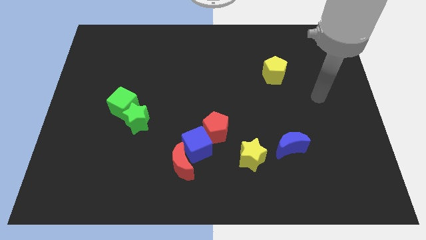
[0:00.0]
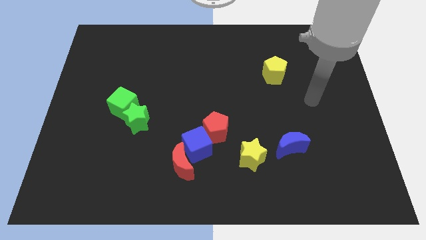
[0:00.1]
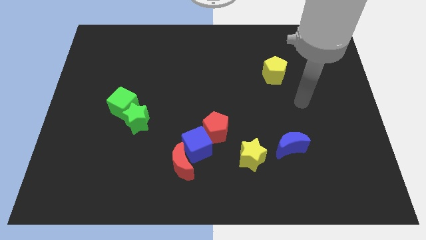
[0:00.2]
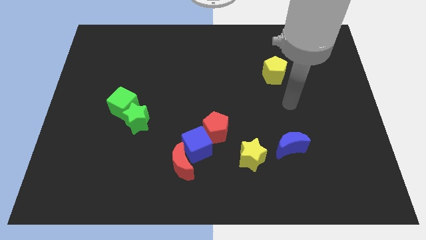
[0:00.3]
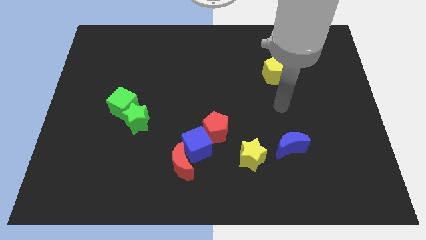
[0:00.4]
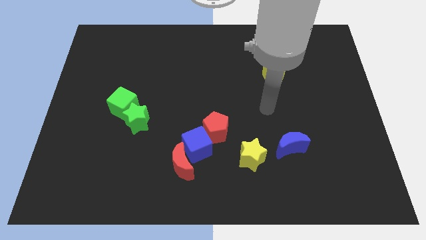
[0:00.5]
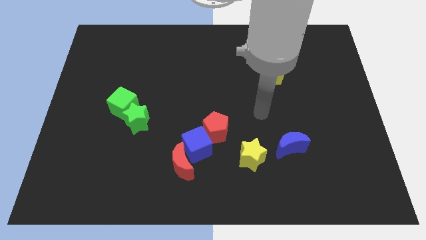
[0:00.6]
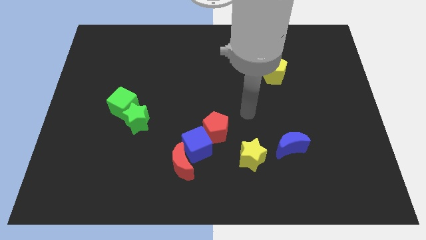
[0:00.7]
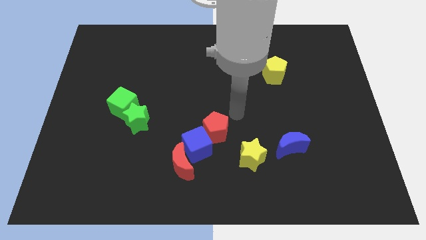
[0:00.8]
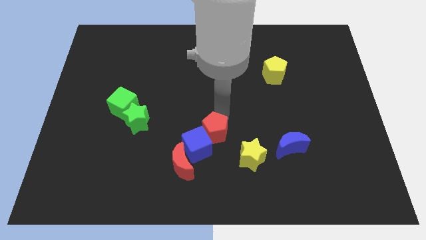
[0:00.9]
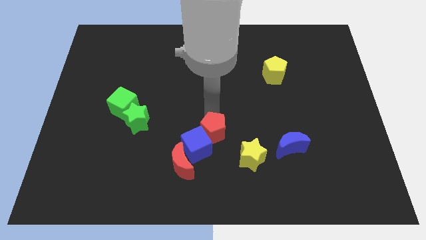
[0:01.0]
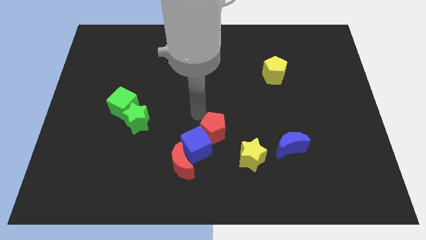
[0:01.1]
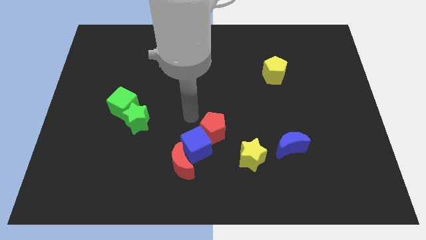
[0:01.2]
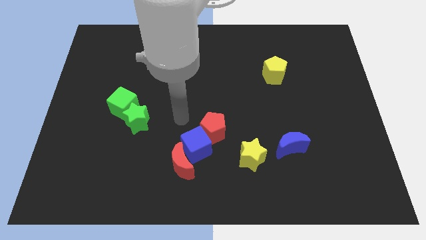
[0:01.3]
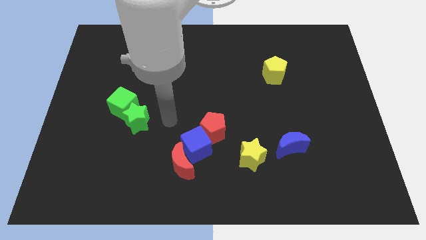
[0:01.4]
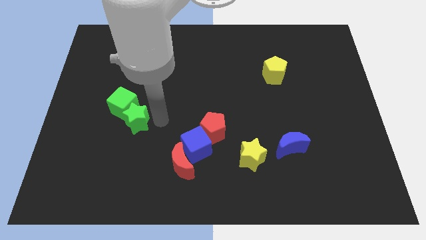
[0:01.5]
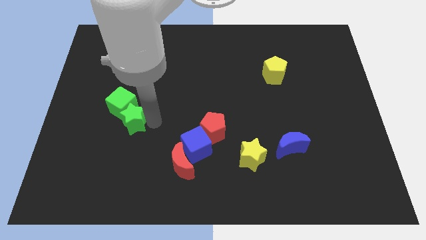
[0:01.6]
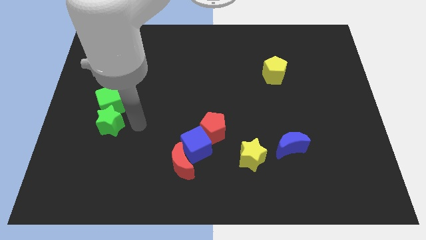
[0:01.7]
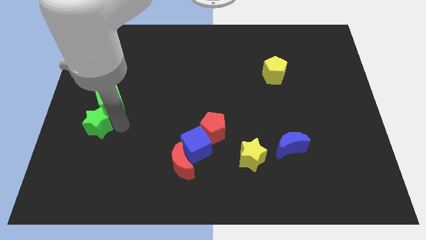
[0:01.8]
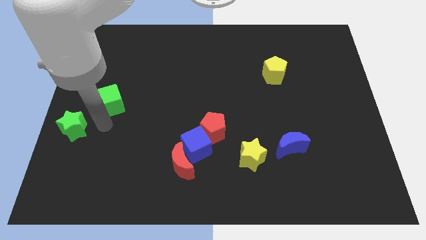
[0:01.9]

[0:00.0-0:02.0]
pull the green cube apart from the green star

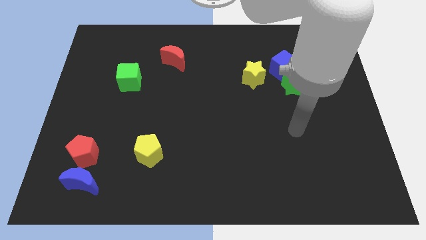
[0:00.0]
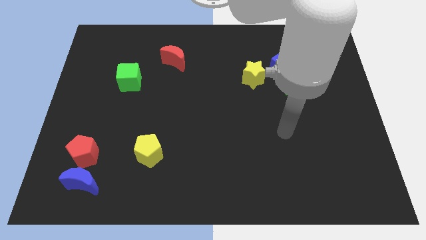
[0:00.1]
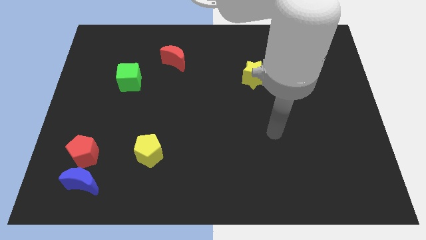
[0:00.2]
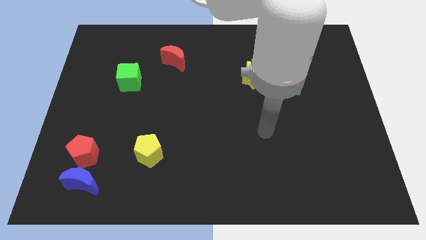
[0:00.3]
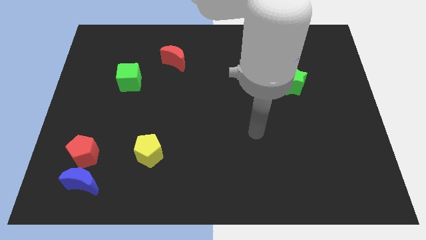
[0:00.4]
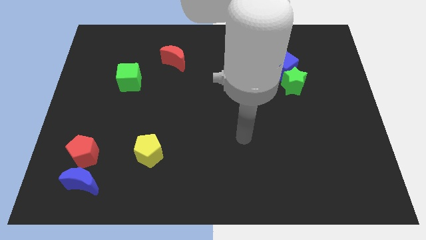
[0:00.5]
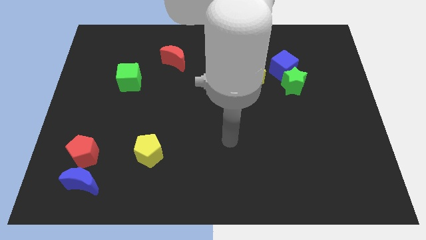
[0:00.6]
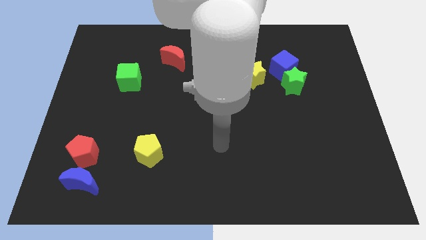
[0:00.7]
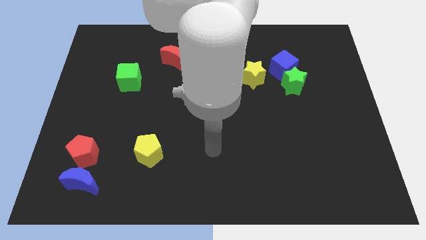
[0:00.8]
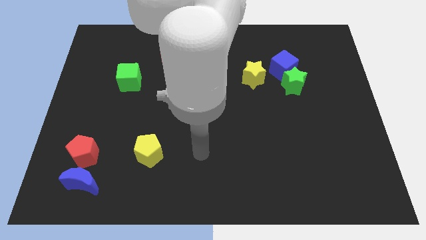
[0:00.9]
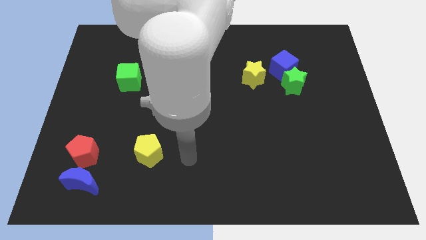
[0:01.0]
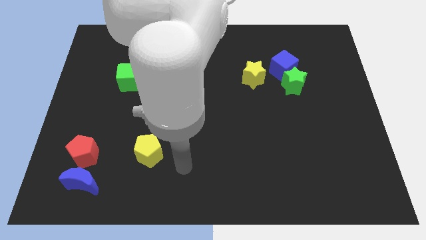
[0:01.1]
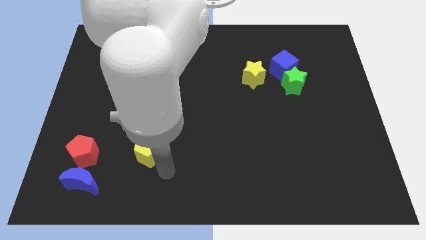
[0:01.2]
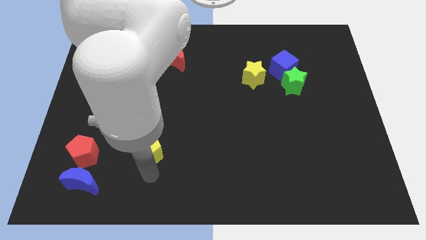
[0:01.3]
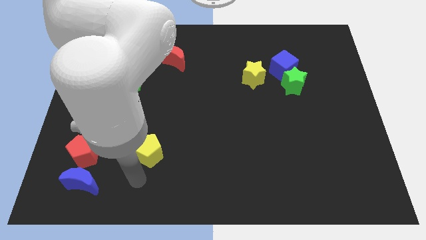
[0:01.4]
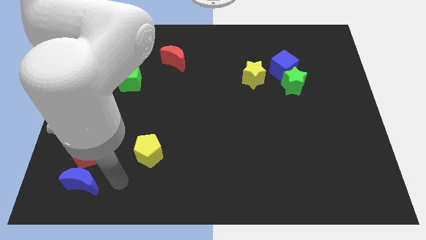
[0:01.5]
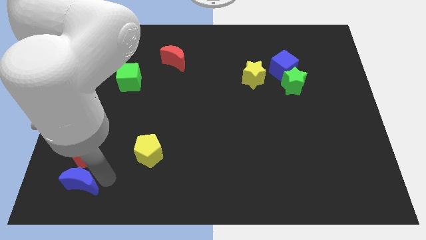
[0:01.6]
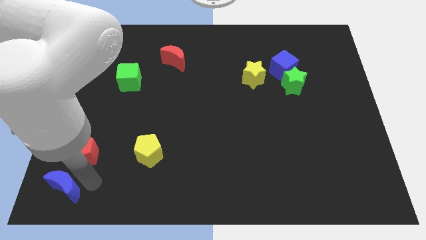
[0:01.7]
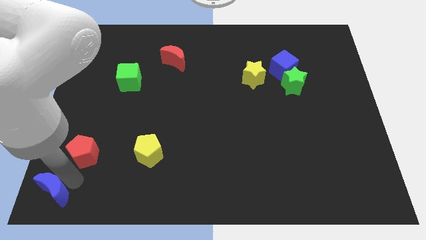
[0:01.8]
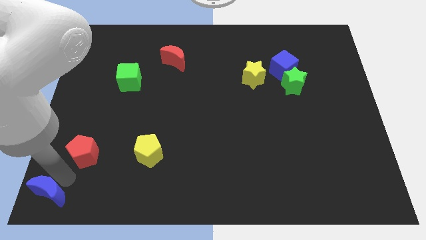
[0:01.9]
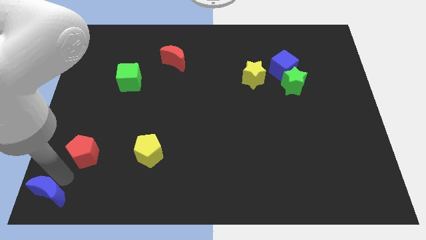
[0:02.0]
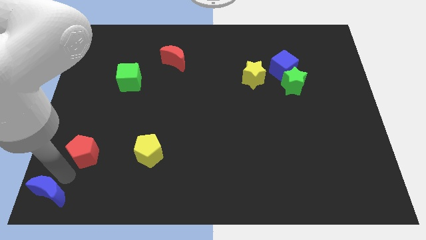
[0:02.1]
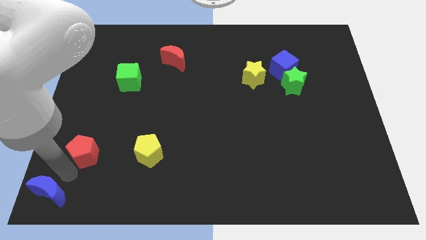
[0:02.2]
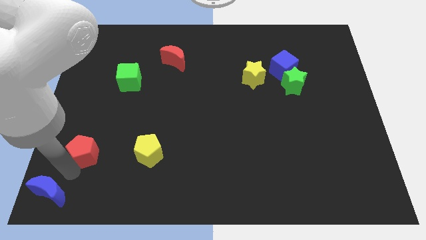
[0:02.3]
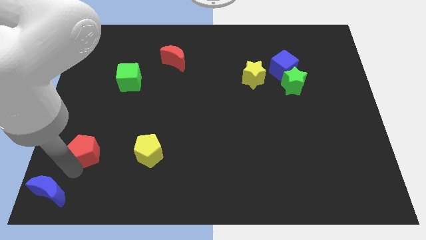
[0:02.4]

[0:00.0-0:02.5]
move the red pentagon away from the blue moon

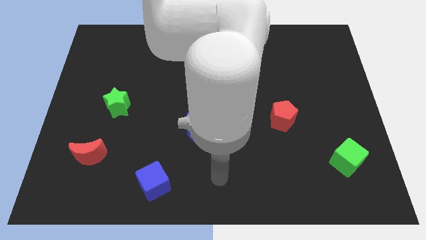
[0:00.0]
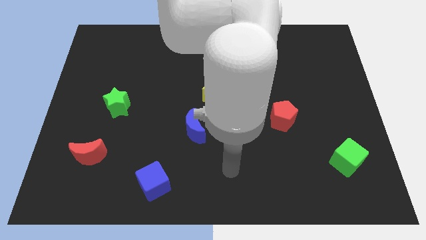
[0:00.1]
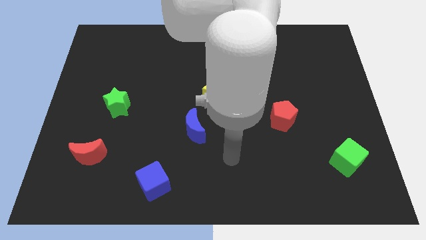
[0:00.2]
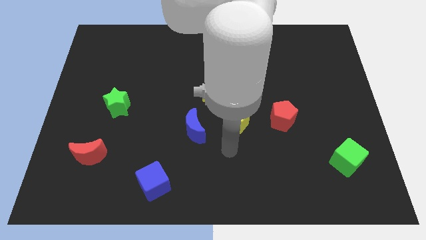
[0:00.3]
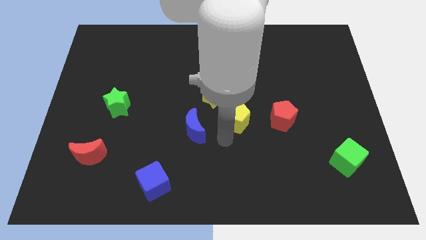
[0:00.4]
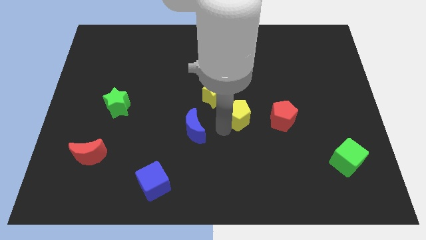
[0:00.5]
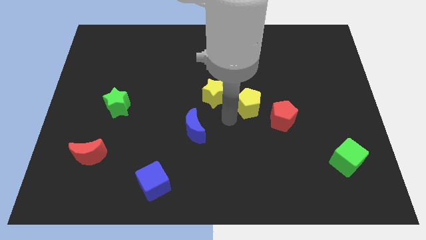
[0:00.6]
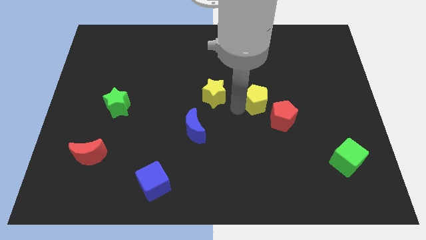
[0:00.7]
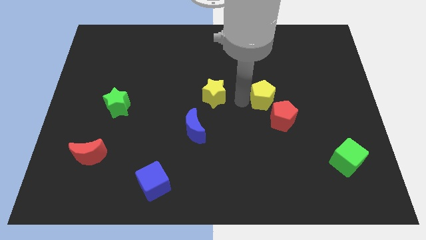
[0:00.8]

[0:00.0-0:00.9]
move the yellow star away from the yellow pentagon

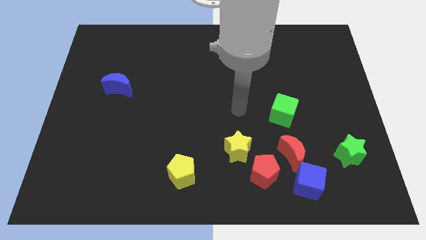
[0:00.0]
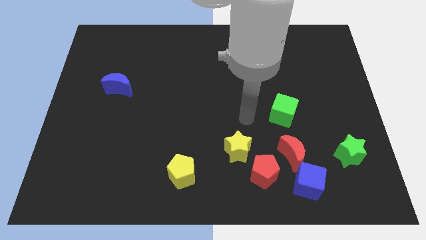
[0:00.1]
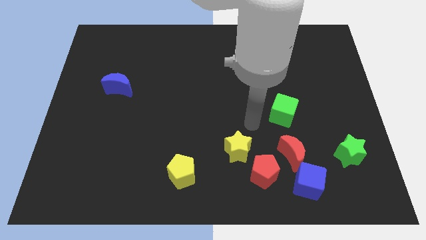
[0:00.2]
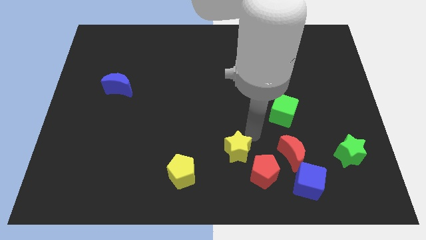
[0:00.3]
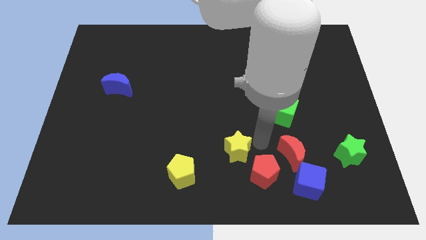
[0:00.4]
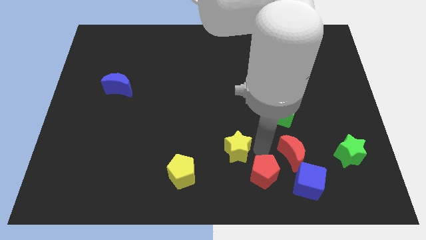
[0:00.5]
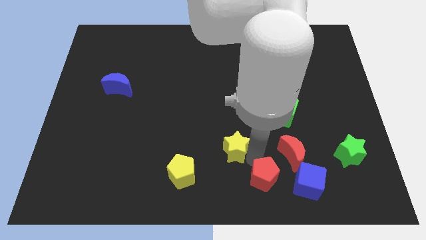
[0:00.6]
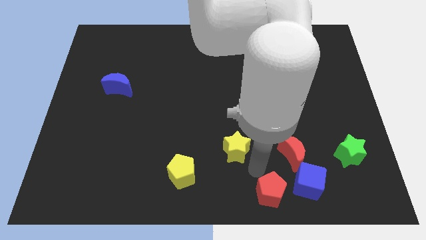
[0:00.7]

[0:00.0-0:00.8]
separate the yellow star from the red pentagon

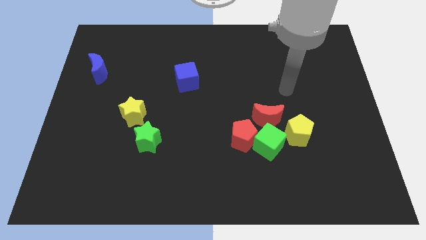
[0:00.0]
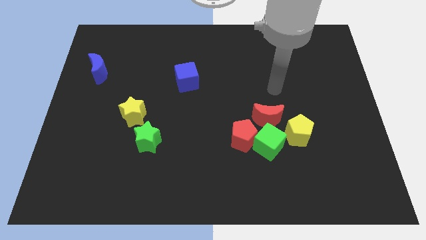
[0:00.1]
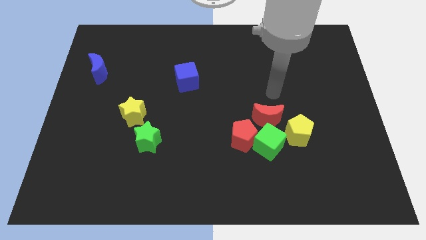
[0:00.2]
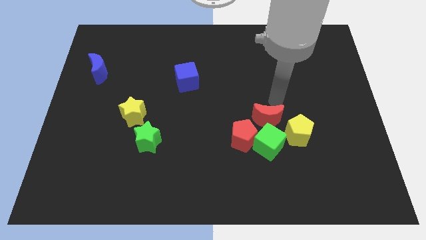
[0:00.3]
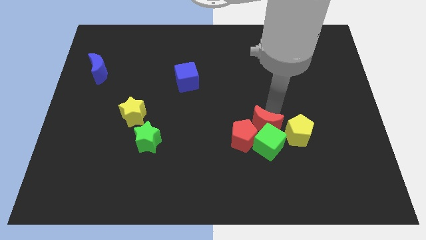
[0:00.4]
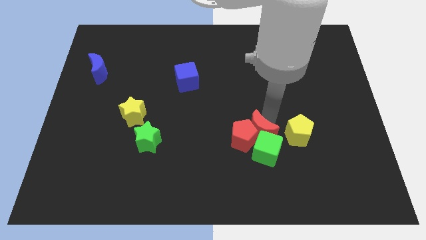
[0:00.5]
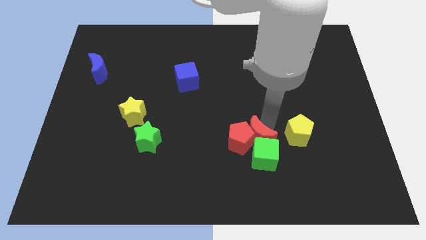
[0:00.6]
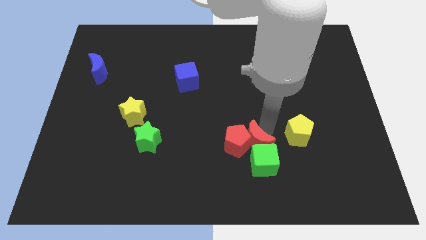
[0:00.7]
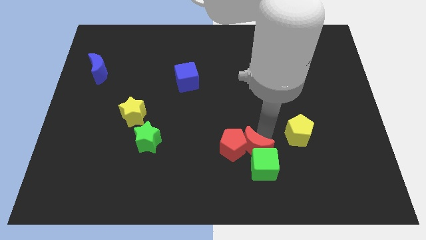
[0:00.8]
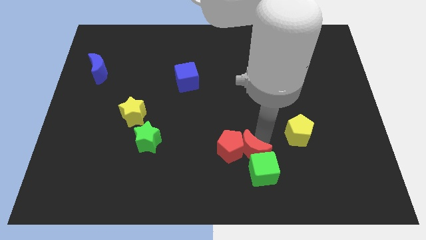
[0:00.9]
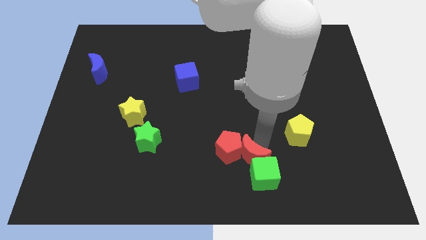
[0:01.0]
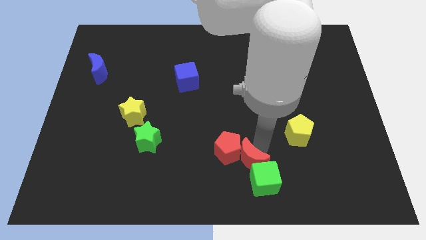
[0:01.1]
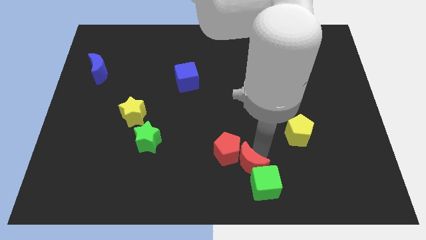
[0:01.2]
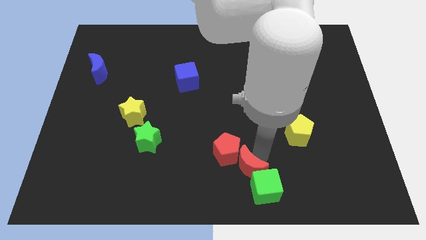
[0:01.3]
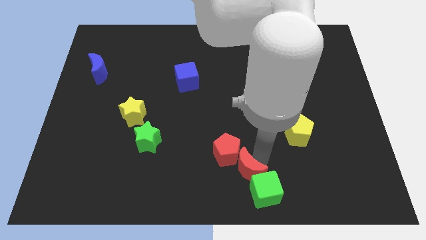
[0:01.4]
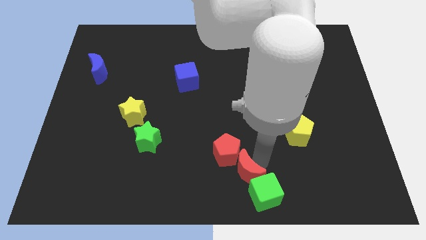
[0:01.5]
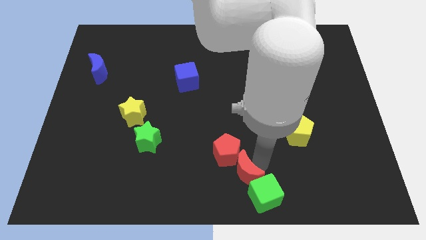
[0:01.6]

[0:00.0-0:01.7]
pull the green cube apart from the group

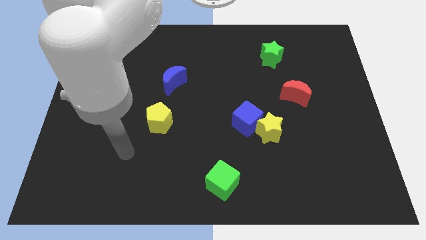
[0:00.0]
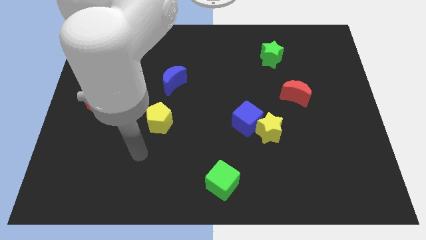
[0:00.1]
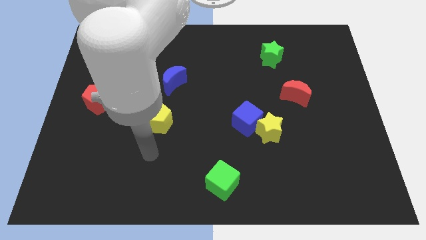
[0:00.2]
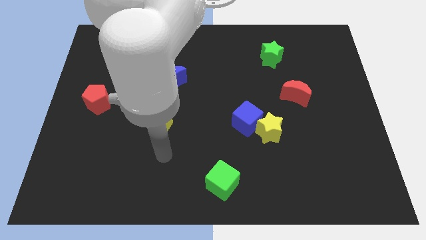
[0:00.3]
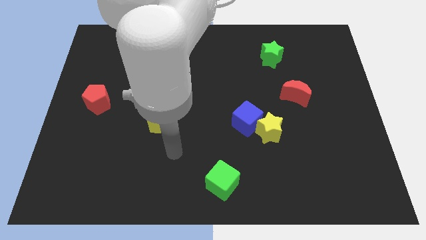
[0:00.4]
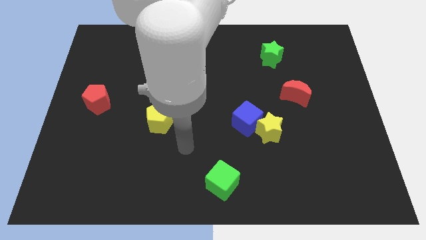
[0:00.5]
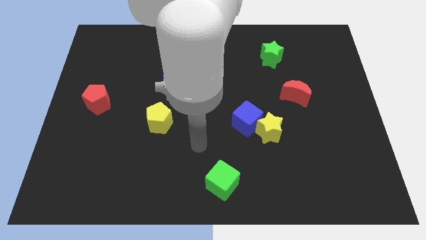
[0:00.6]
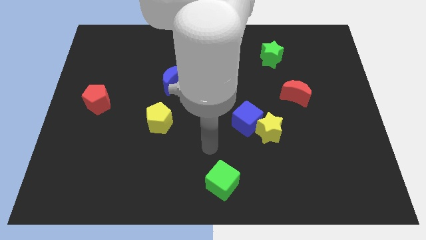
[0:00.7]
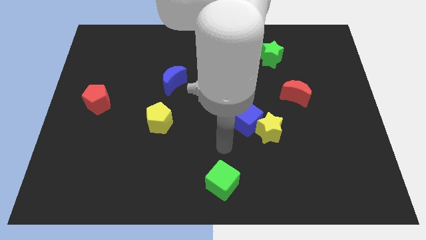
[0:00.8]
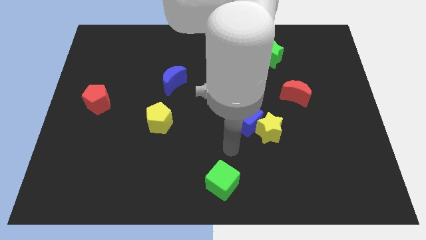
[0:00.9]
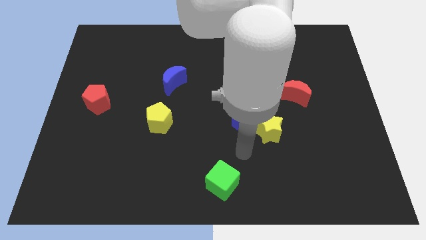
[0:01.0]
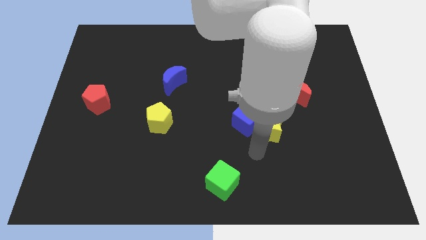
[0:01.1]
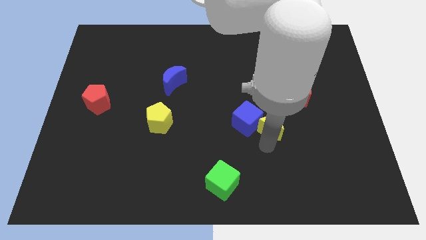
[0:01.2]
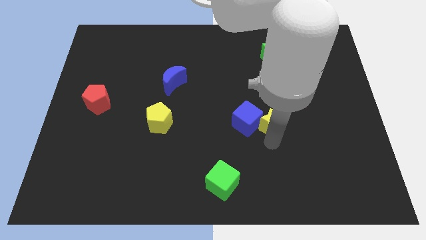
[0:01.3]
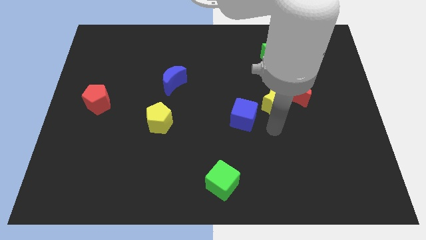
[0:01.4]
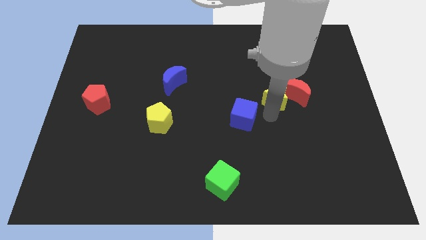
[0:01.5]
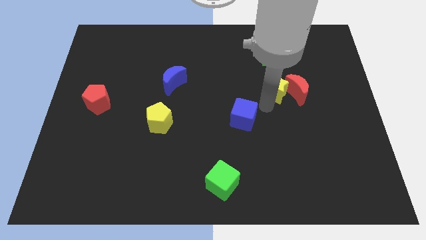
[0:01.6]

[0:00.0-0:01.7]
pull the blue cube apart from the yellow star
